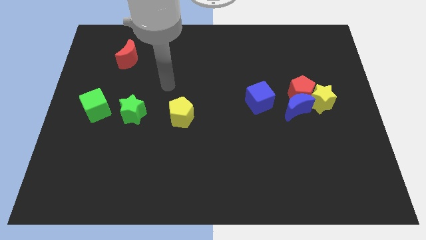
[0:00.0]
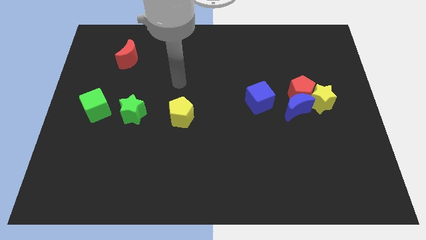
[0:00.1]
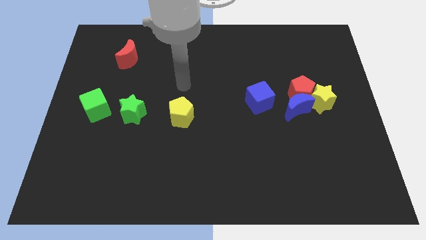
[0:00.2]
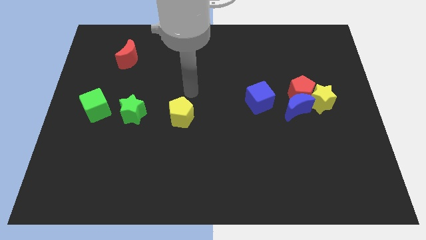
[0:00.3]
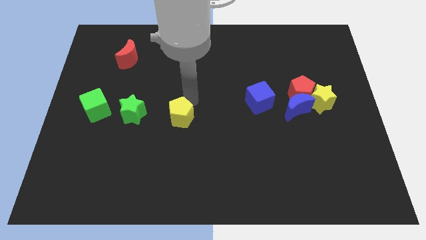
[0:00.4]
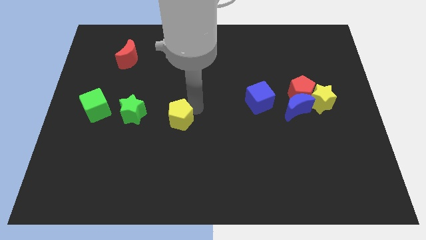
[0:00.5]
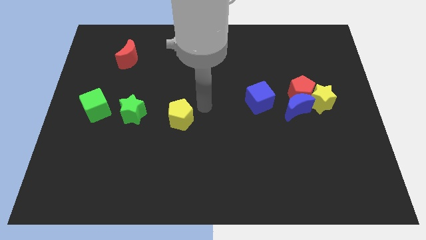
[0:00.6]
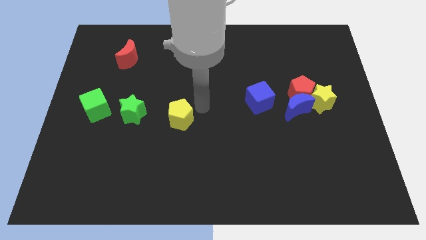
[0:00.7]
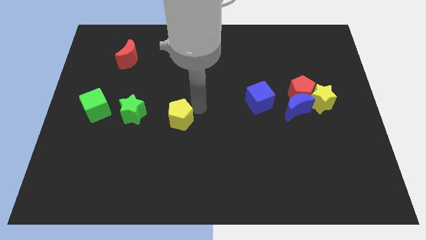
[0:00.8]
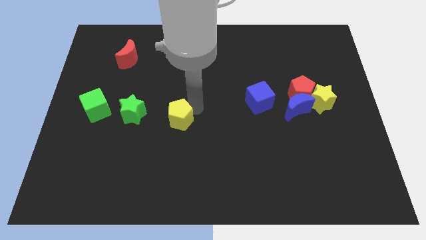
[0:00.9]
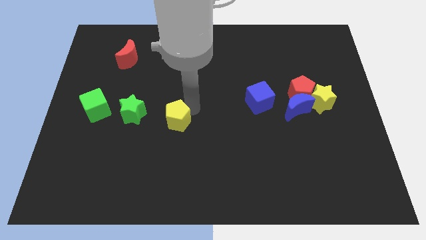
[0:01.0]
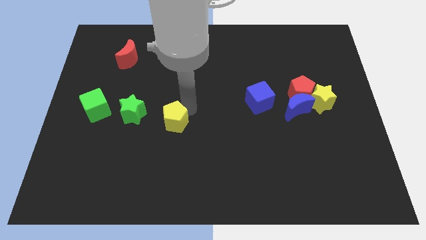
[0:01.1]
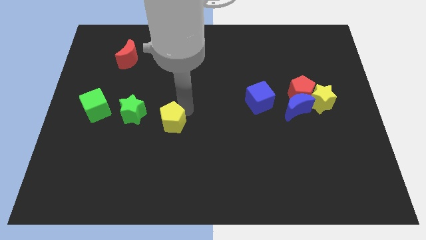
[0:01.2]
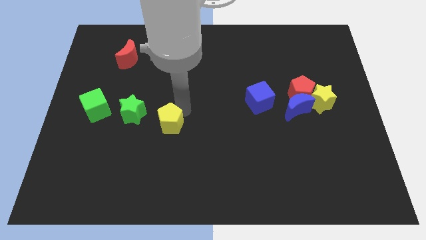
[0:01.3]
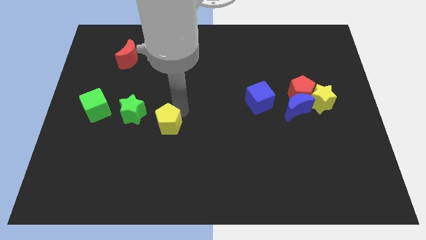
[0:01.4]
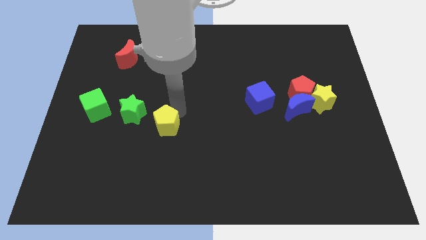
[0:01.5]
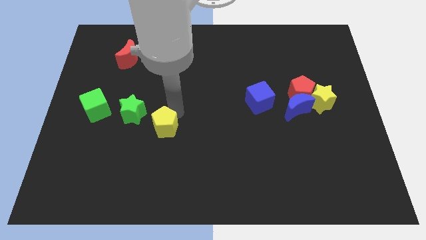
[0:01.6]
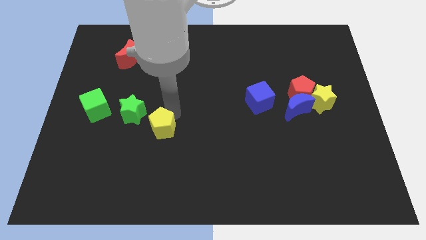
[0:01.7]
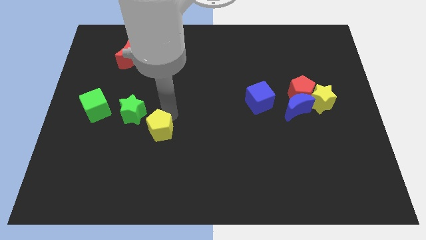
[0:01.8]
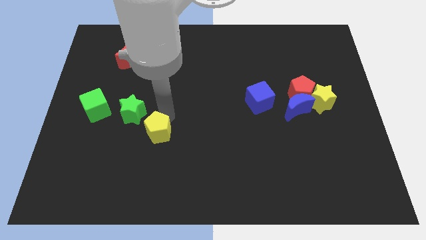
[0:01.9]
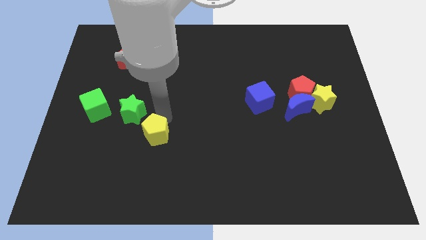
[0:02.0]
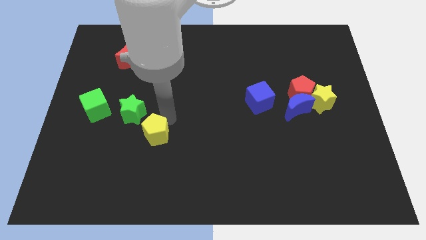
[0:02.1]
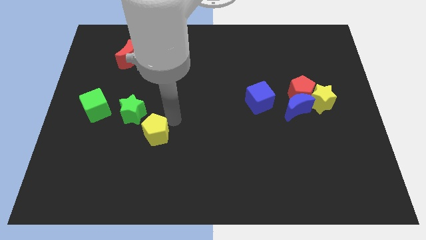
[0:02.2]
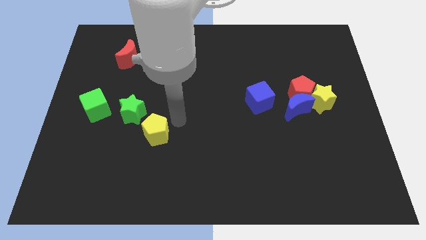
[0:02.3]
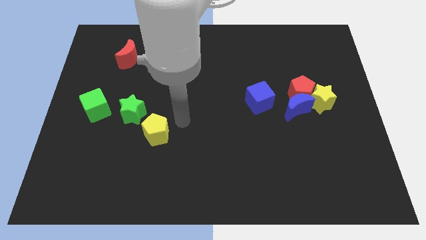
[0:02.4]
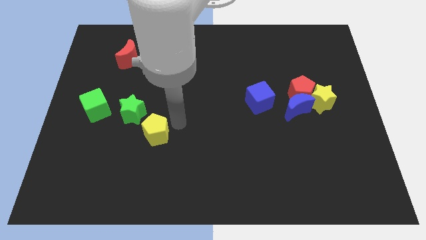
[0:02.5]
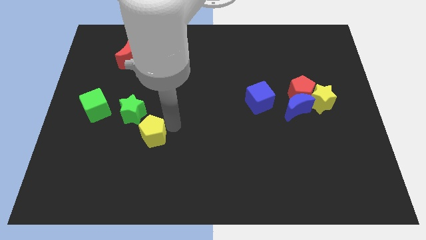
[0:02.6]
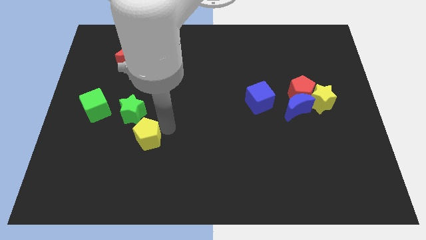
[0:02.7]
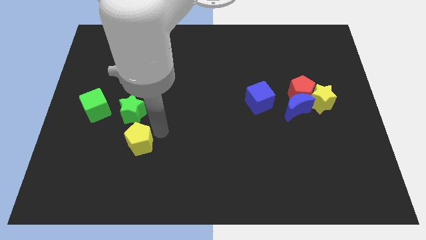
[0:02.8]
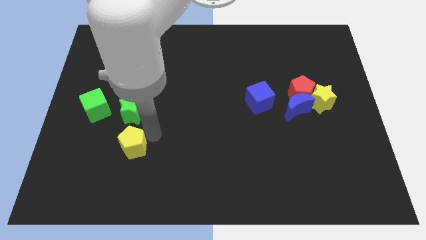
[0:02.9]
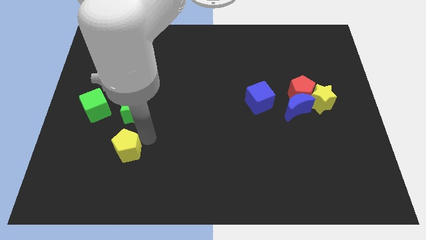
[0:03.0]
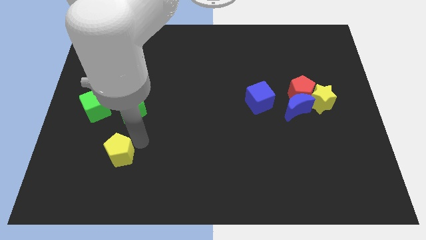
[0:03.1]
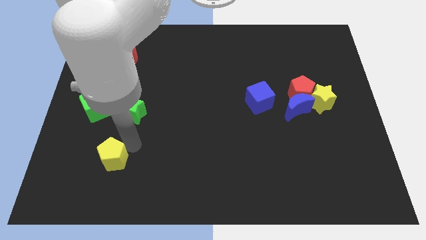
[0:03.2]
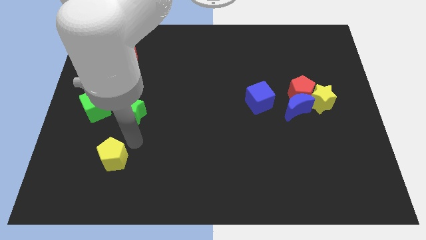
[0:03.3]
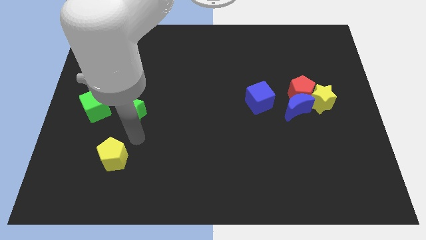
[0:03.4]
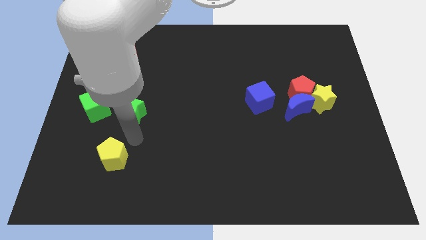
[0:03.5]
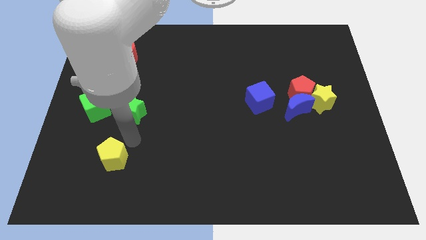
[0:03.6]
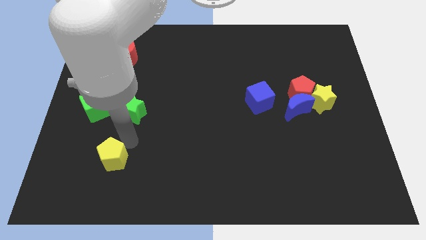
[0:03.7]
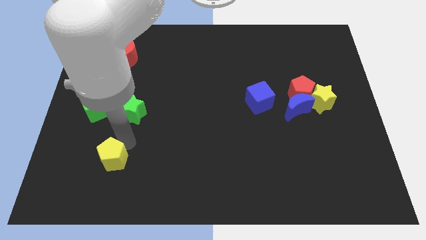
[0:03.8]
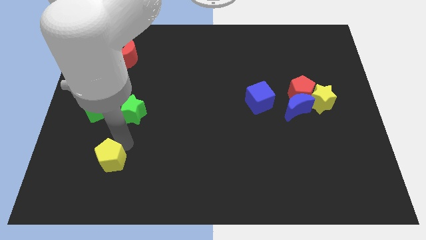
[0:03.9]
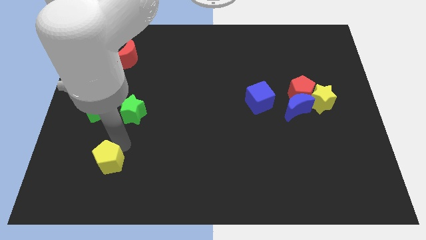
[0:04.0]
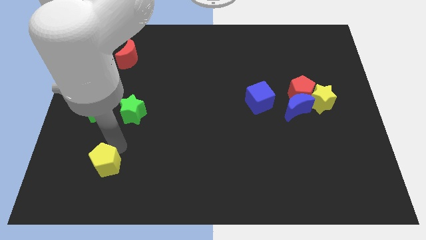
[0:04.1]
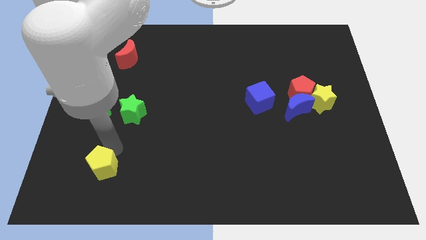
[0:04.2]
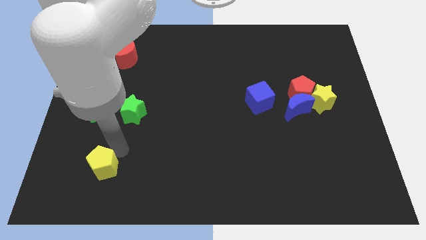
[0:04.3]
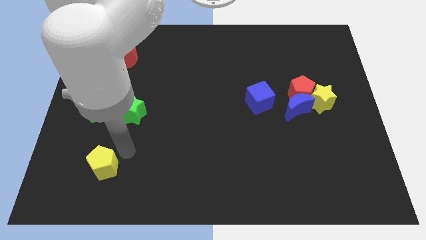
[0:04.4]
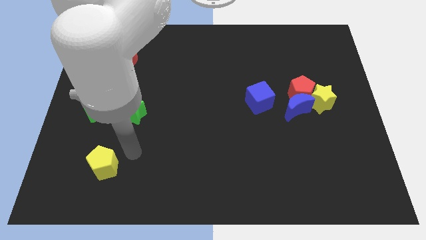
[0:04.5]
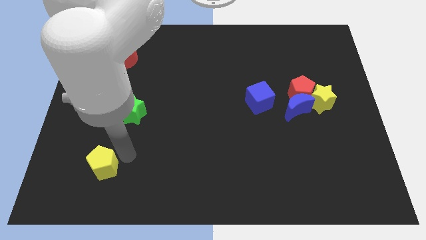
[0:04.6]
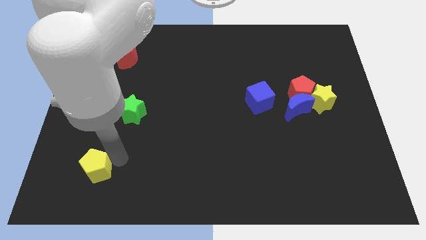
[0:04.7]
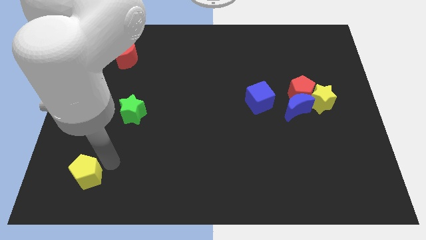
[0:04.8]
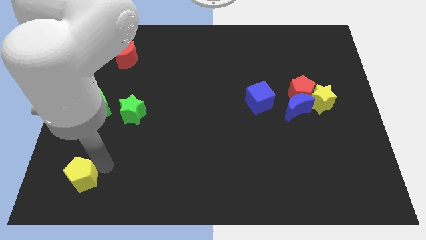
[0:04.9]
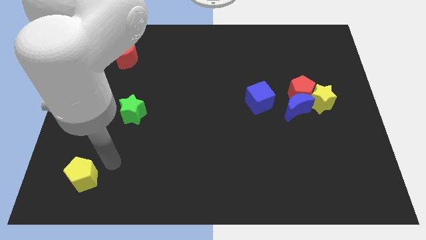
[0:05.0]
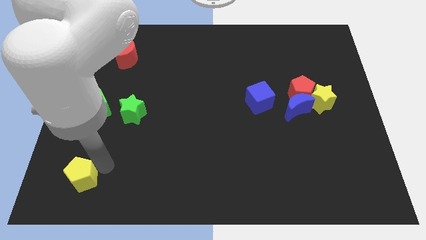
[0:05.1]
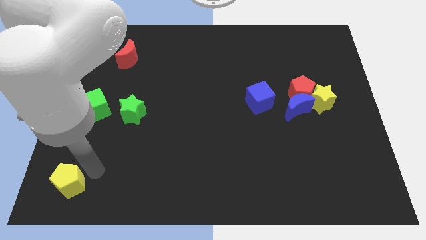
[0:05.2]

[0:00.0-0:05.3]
put the yellow pentagon to the lower left corner

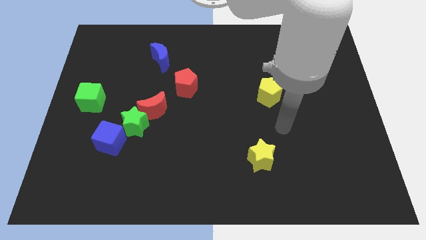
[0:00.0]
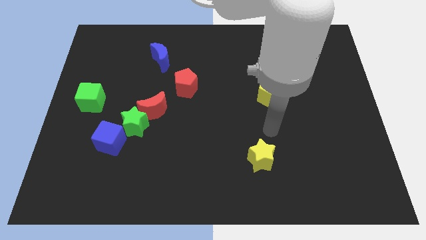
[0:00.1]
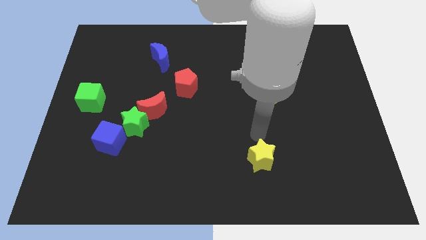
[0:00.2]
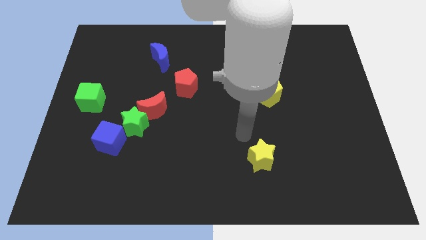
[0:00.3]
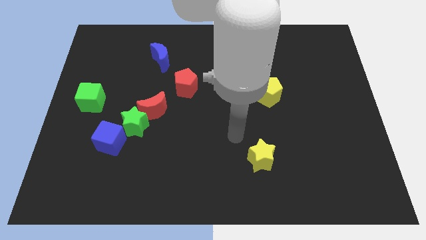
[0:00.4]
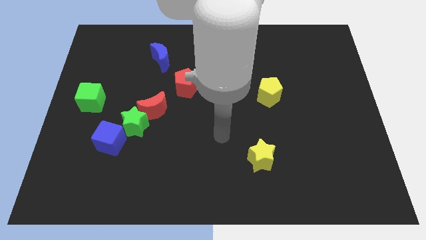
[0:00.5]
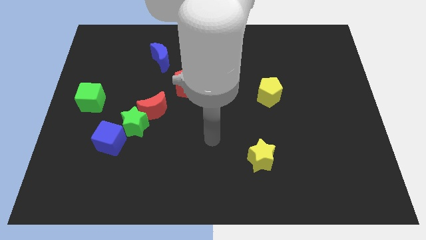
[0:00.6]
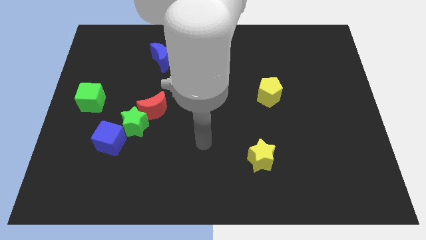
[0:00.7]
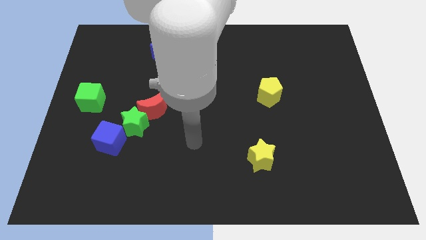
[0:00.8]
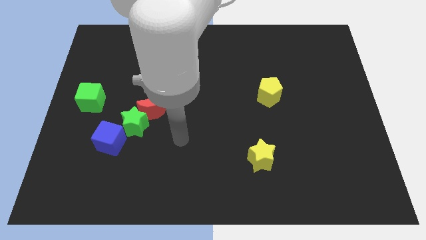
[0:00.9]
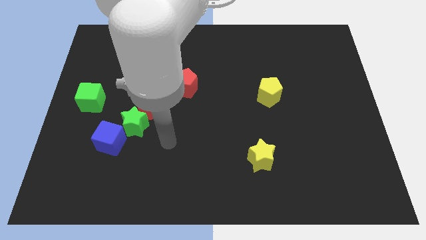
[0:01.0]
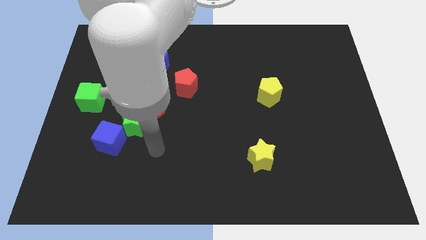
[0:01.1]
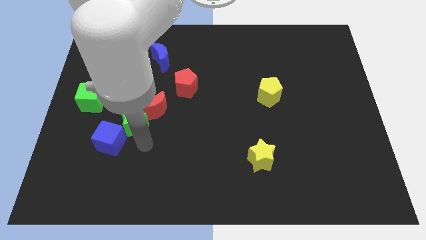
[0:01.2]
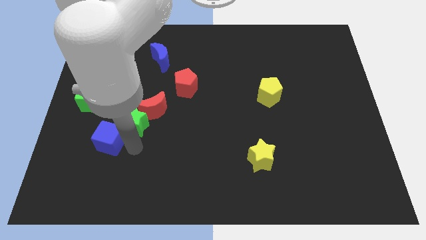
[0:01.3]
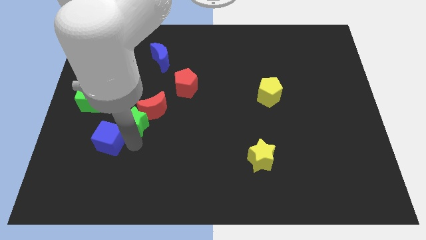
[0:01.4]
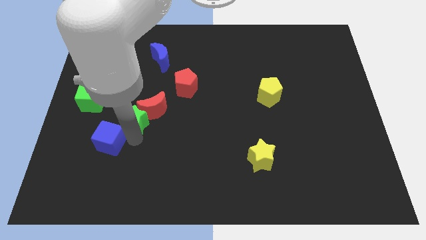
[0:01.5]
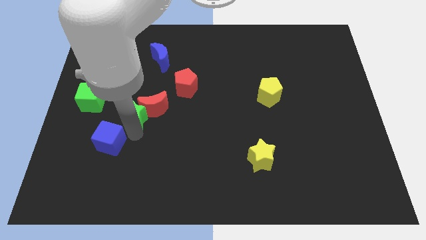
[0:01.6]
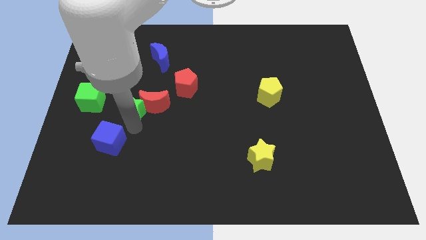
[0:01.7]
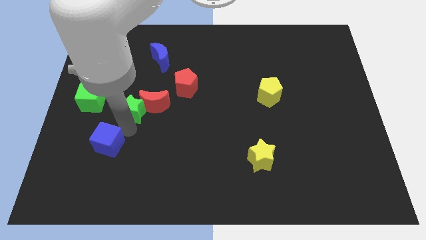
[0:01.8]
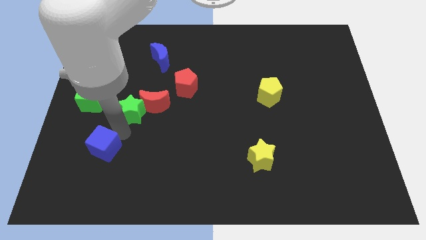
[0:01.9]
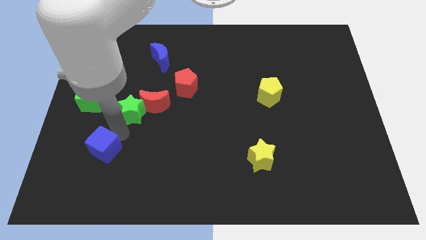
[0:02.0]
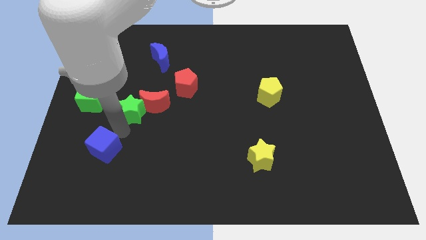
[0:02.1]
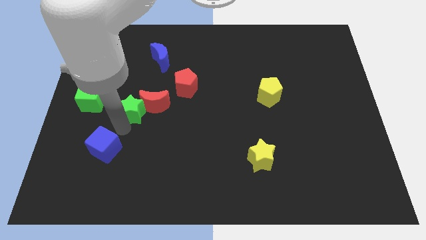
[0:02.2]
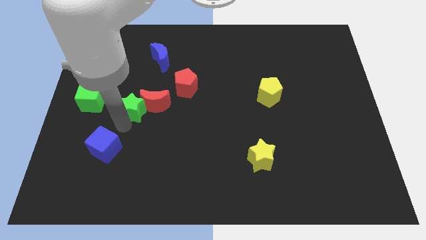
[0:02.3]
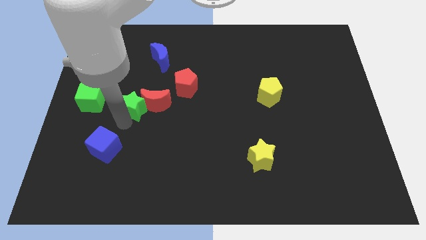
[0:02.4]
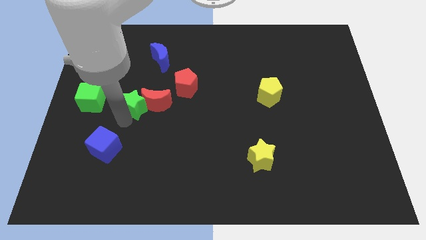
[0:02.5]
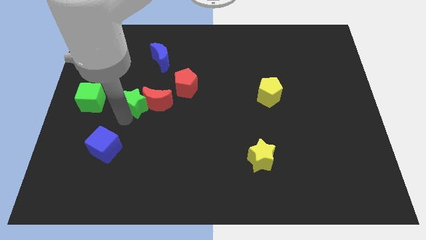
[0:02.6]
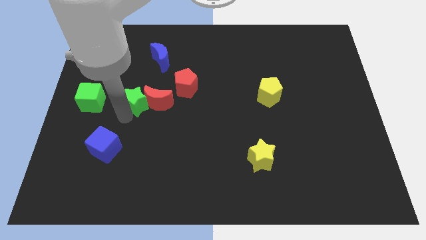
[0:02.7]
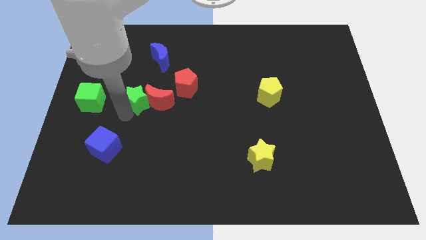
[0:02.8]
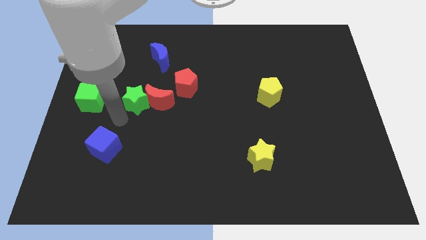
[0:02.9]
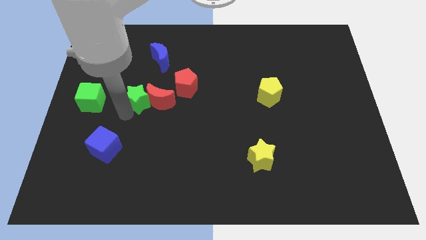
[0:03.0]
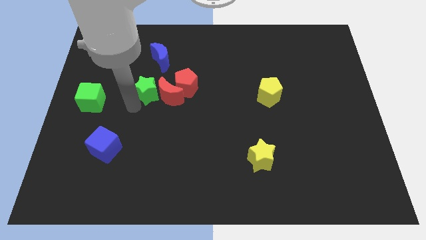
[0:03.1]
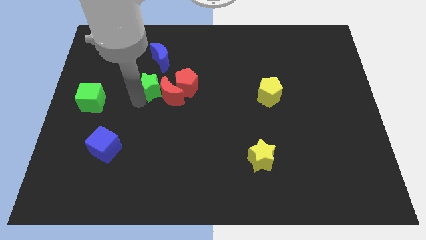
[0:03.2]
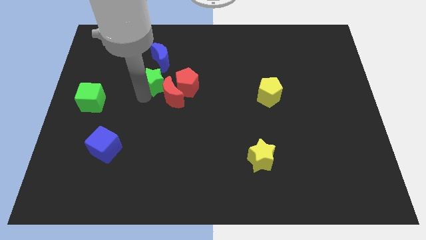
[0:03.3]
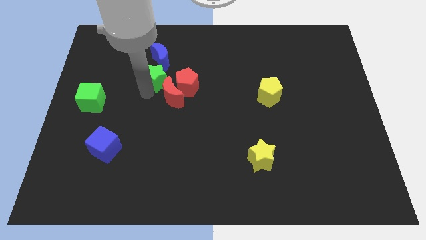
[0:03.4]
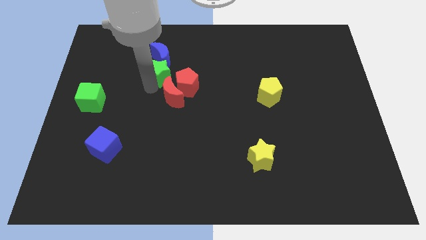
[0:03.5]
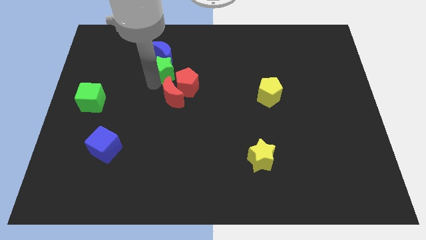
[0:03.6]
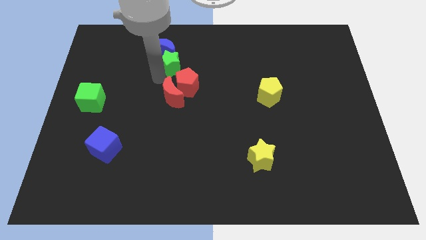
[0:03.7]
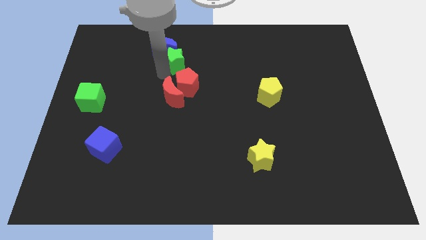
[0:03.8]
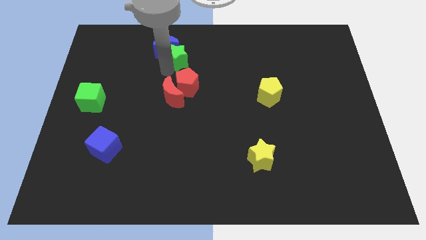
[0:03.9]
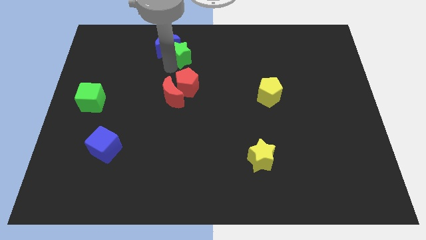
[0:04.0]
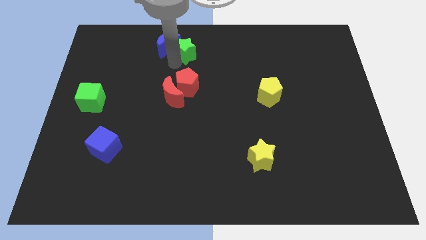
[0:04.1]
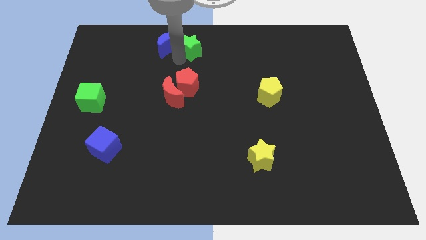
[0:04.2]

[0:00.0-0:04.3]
put the green star to the towards your base
